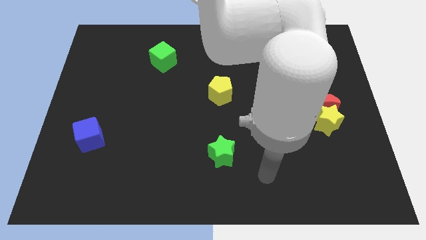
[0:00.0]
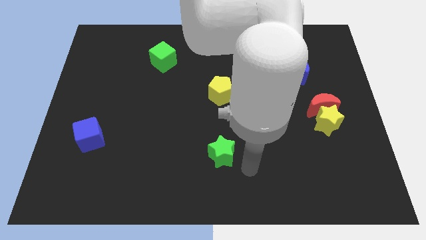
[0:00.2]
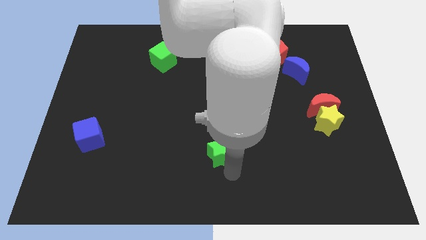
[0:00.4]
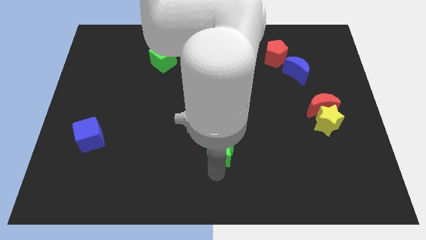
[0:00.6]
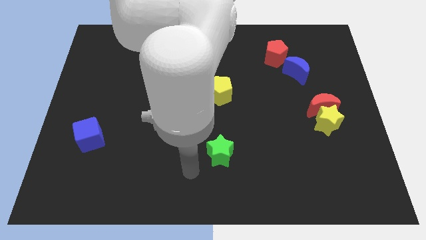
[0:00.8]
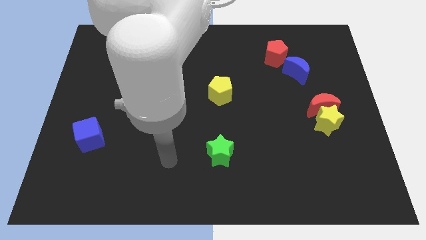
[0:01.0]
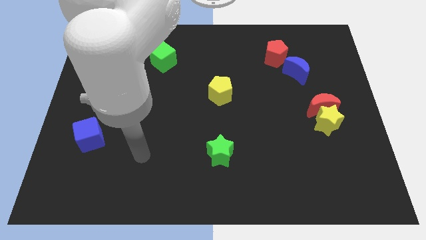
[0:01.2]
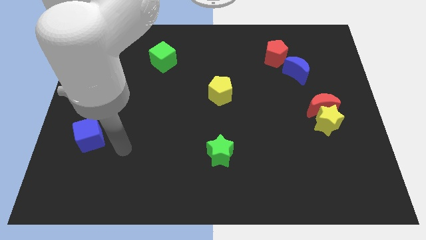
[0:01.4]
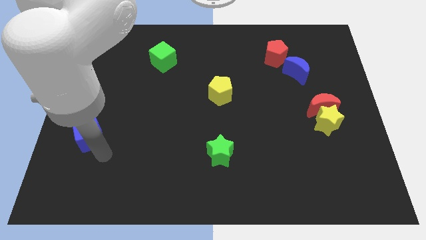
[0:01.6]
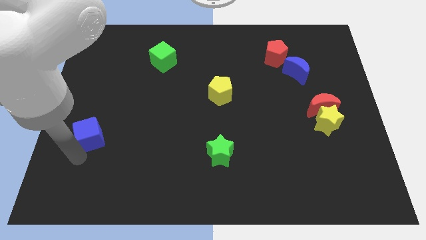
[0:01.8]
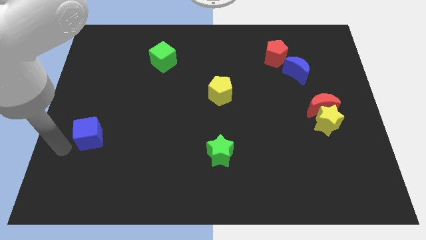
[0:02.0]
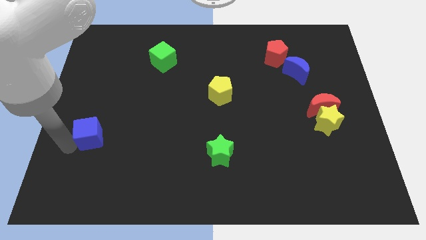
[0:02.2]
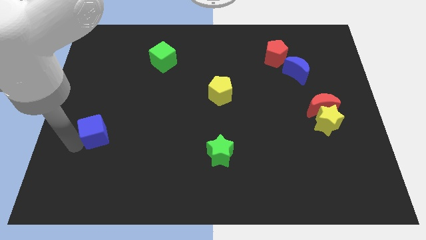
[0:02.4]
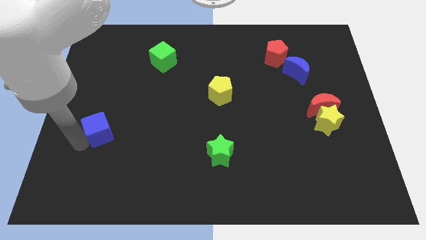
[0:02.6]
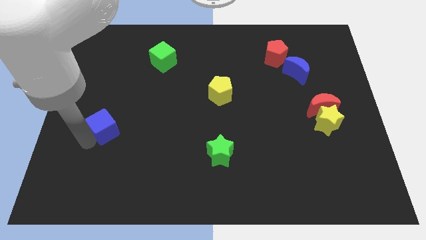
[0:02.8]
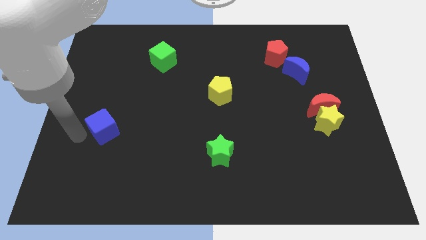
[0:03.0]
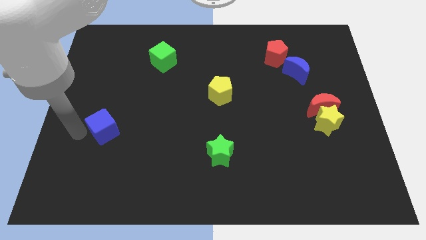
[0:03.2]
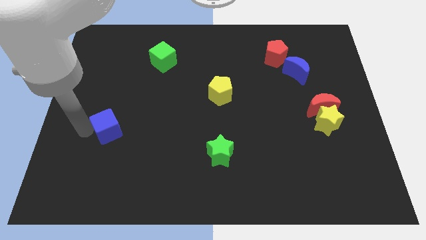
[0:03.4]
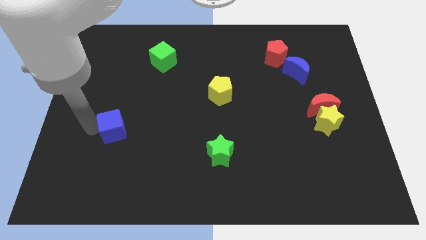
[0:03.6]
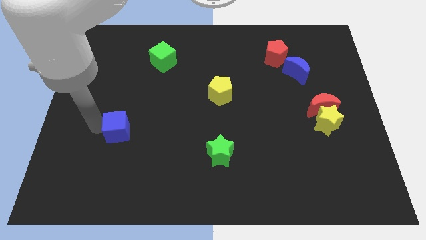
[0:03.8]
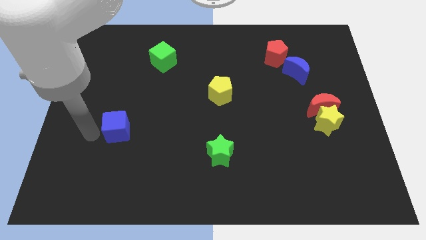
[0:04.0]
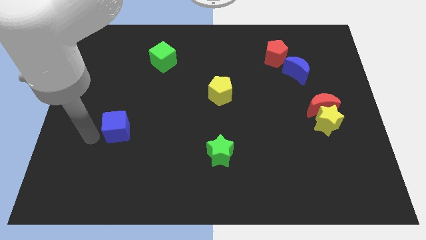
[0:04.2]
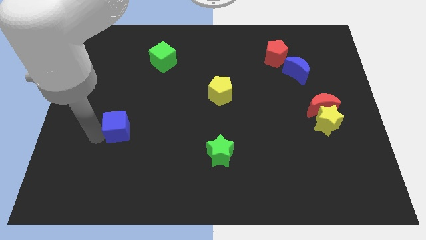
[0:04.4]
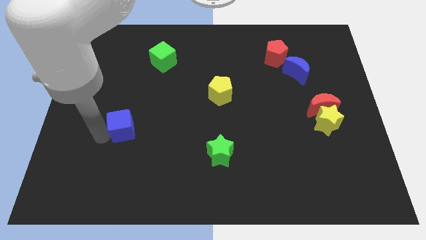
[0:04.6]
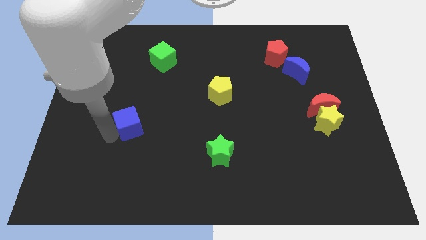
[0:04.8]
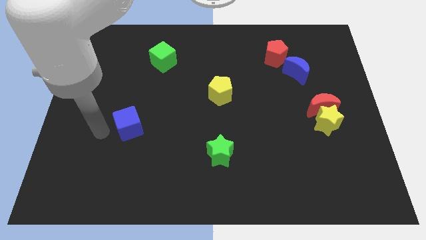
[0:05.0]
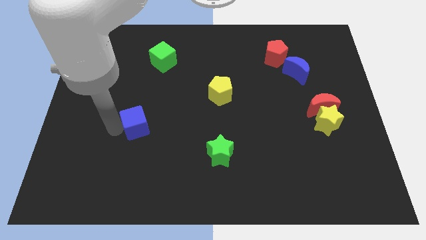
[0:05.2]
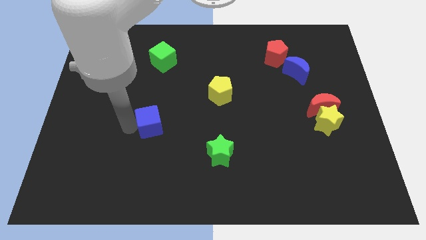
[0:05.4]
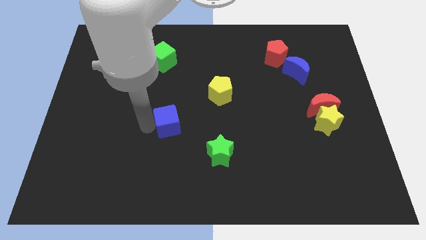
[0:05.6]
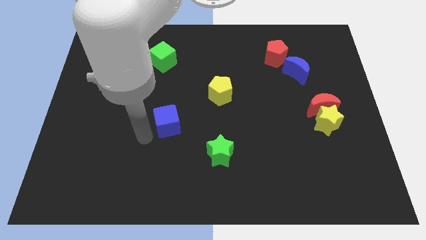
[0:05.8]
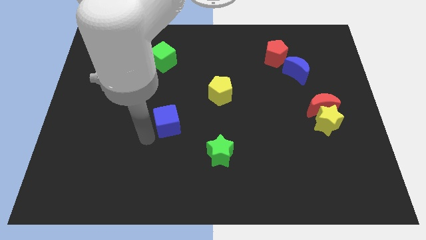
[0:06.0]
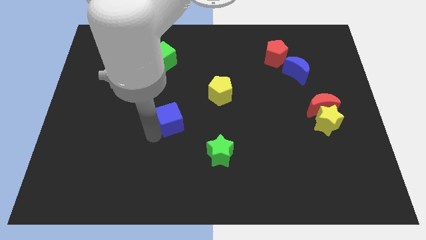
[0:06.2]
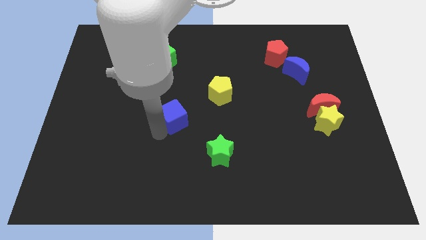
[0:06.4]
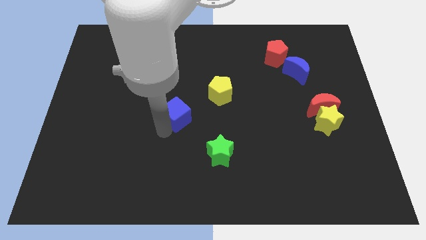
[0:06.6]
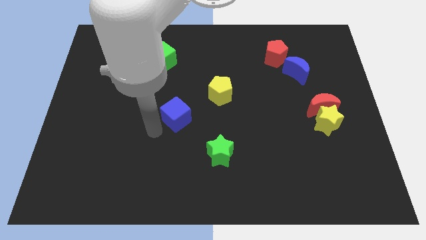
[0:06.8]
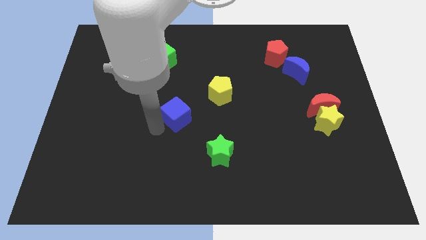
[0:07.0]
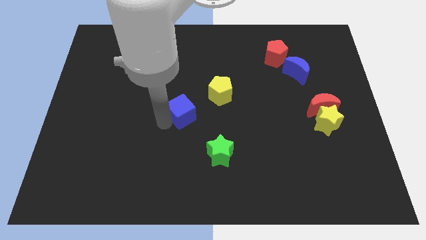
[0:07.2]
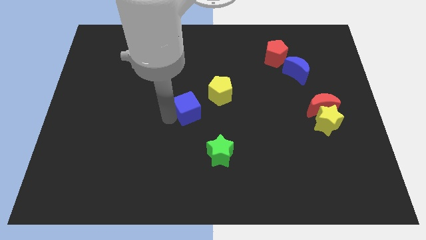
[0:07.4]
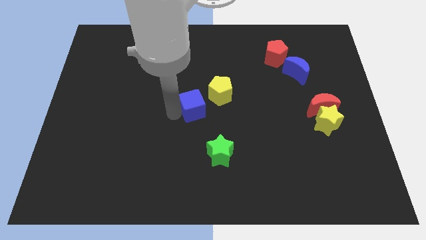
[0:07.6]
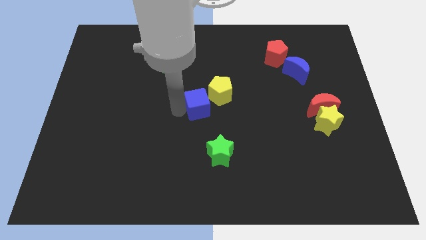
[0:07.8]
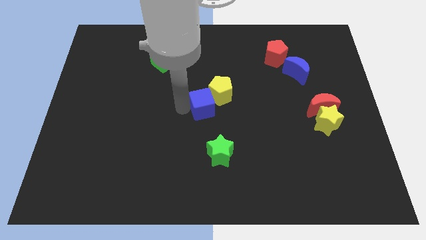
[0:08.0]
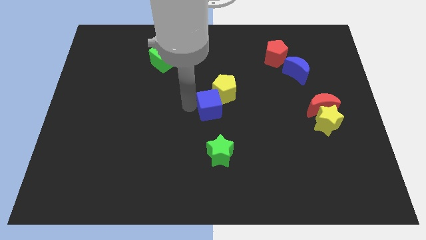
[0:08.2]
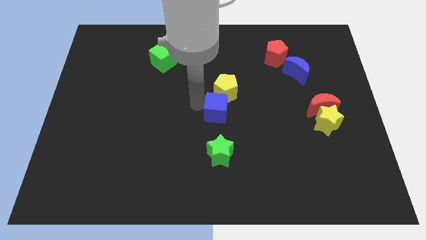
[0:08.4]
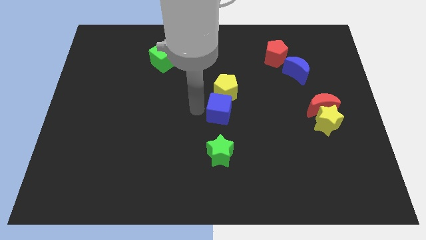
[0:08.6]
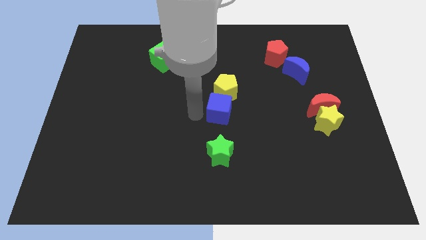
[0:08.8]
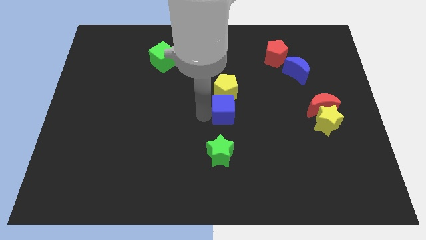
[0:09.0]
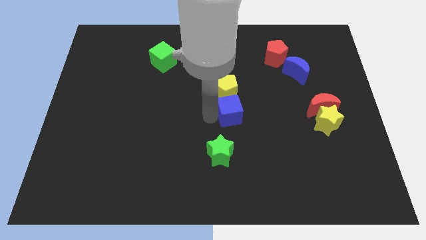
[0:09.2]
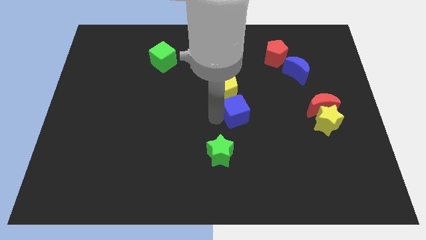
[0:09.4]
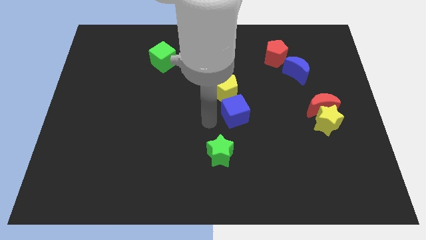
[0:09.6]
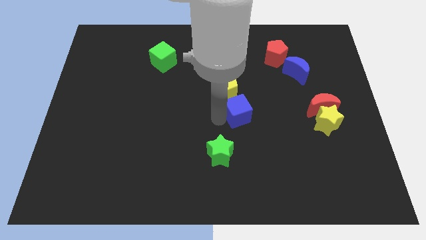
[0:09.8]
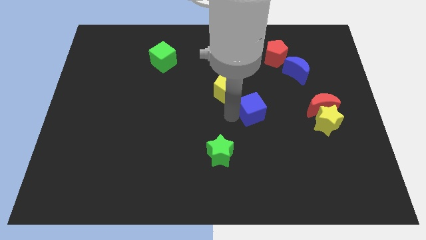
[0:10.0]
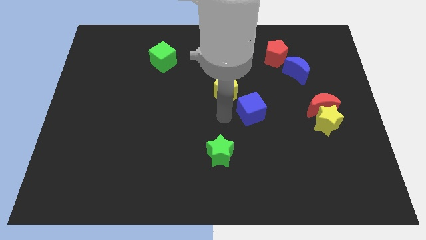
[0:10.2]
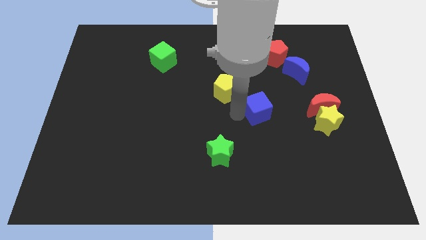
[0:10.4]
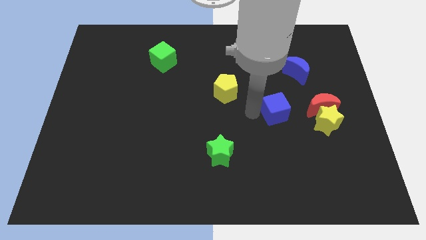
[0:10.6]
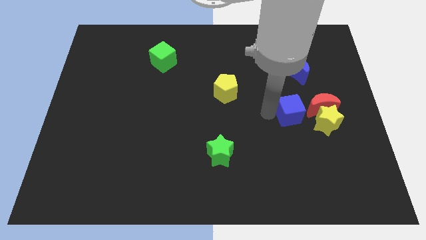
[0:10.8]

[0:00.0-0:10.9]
put the blue cube below the blue moon

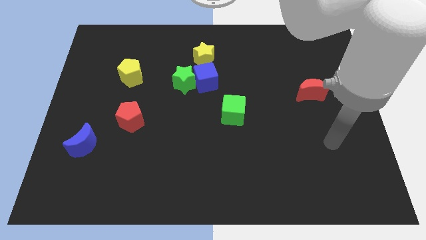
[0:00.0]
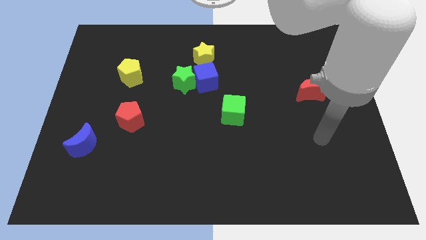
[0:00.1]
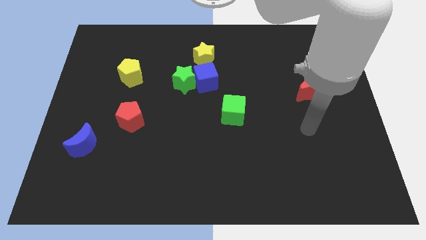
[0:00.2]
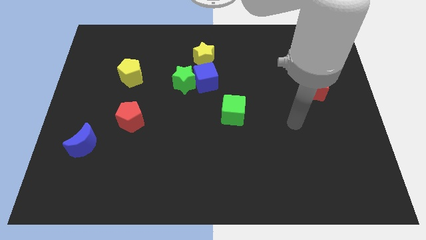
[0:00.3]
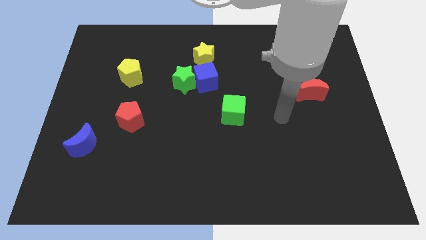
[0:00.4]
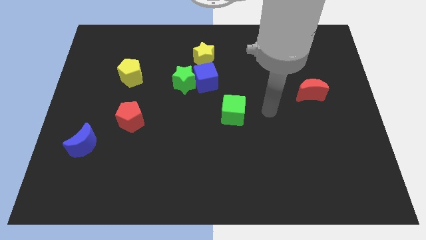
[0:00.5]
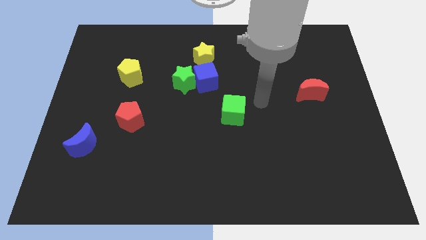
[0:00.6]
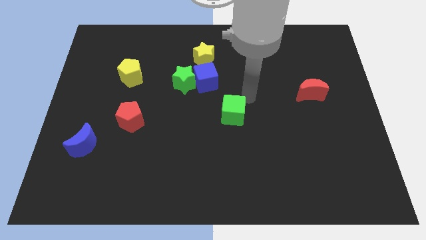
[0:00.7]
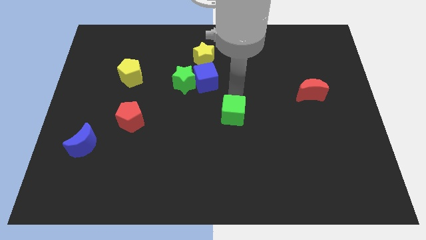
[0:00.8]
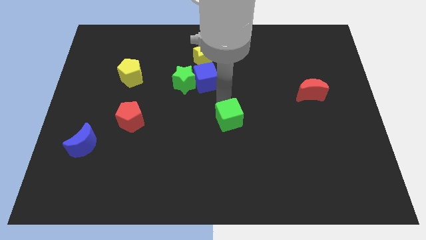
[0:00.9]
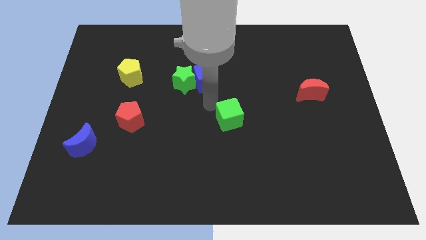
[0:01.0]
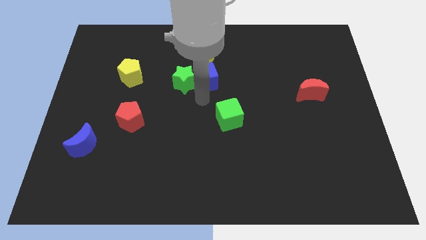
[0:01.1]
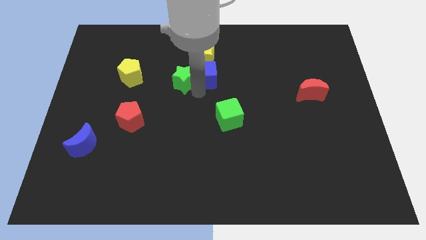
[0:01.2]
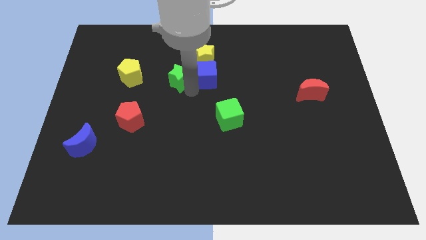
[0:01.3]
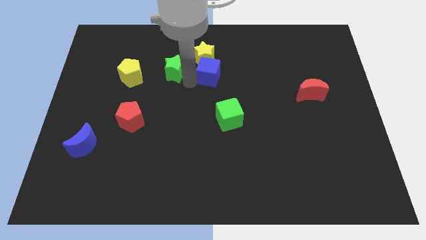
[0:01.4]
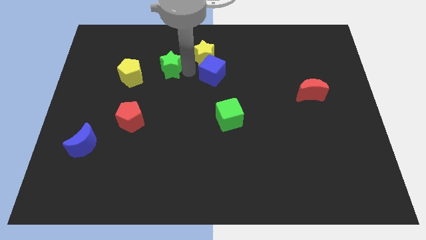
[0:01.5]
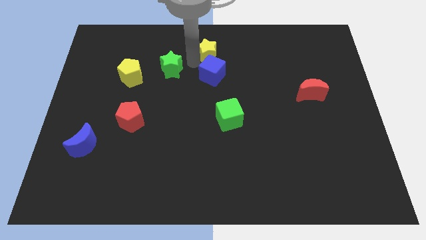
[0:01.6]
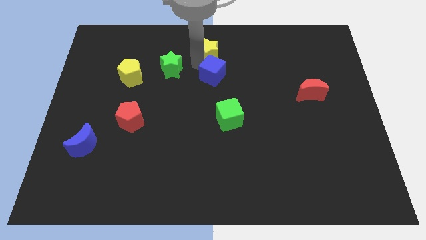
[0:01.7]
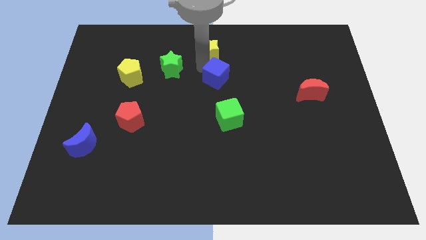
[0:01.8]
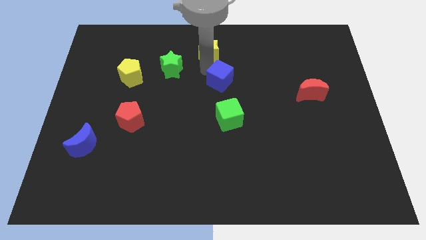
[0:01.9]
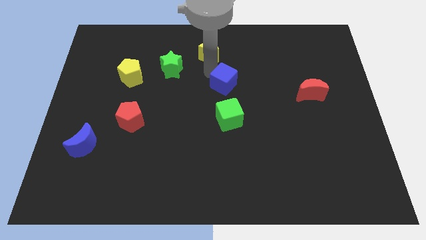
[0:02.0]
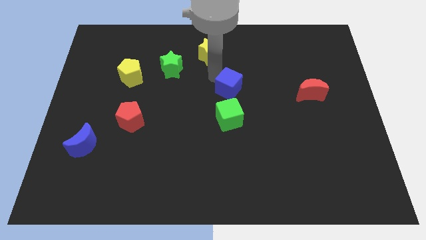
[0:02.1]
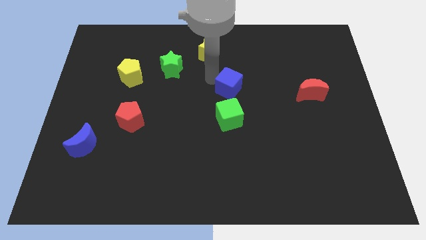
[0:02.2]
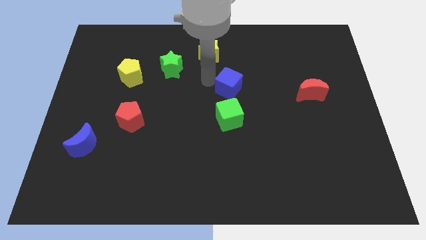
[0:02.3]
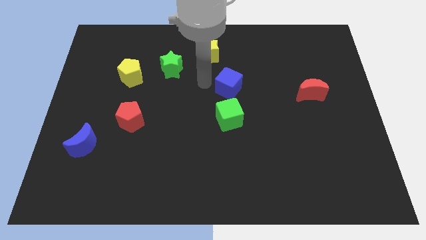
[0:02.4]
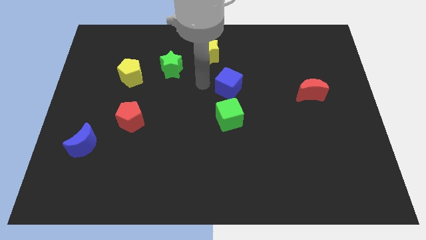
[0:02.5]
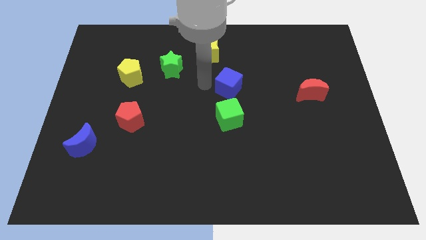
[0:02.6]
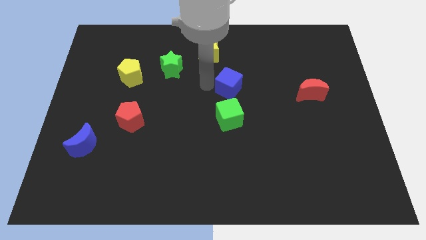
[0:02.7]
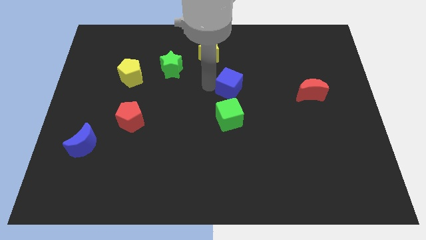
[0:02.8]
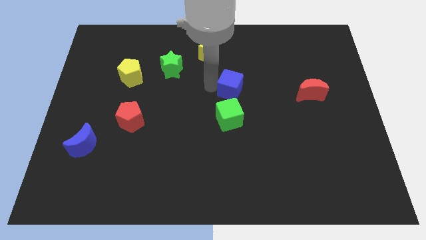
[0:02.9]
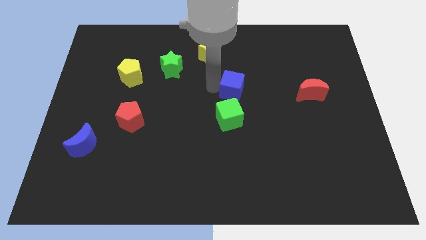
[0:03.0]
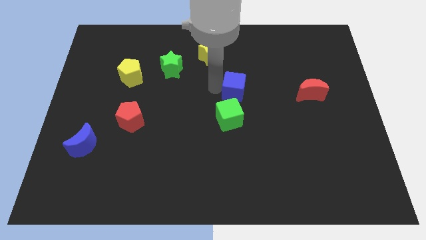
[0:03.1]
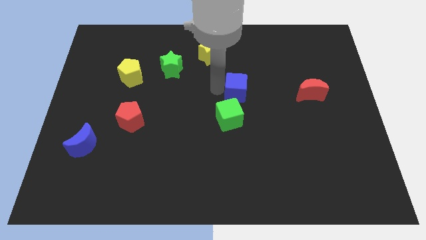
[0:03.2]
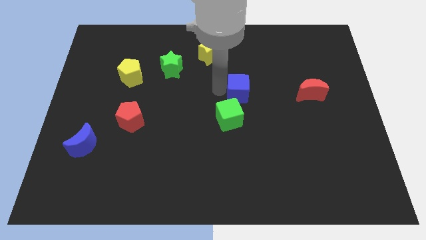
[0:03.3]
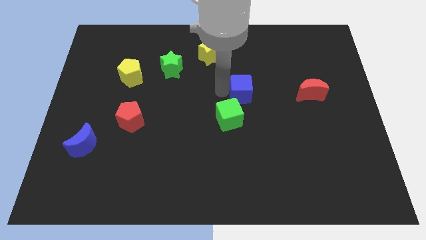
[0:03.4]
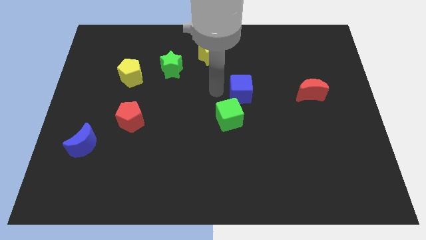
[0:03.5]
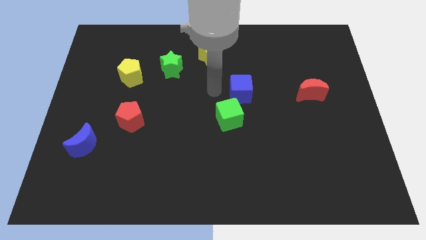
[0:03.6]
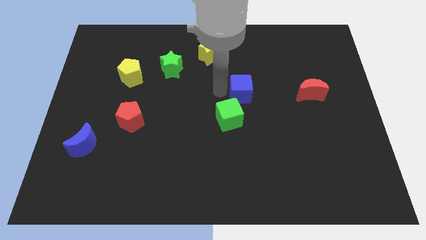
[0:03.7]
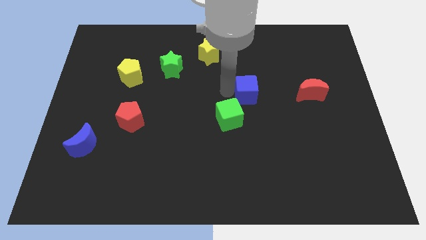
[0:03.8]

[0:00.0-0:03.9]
put the blue cube to the left of the red moon
